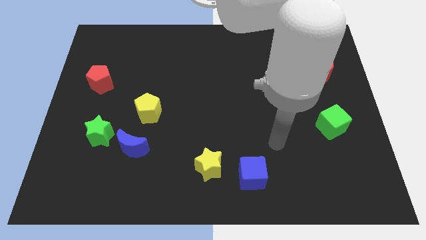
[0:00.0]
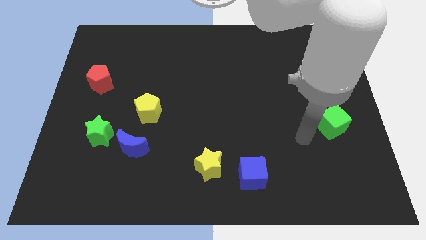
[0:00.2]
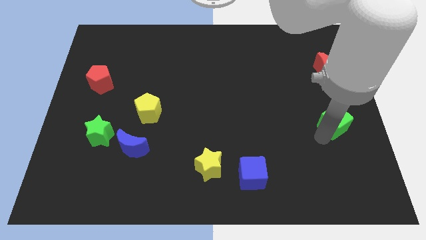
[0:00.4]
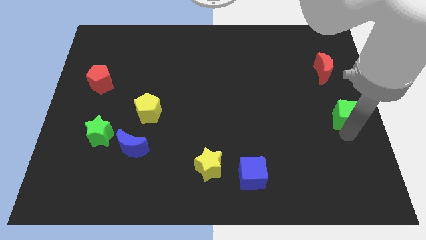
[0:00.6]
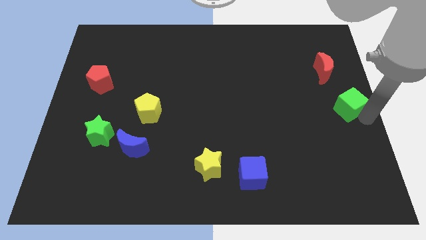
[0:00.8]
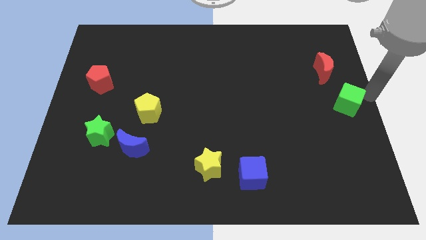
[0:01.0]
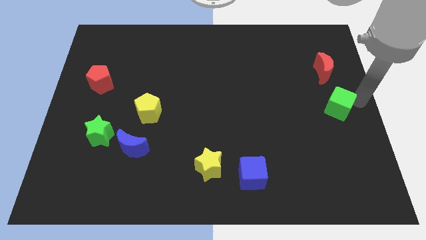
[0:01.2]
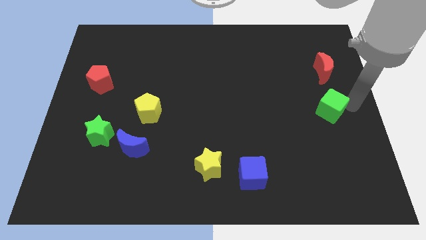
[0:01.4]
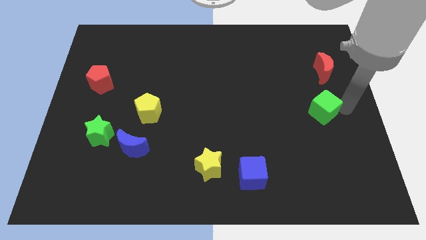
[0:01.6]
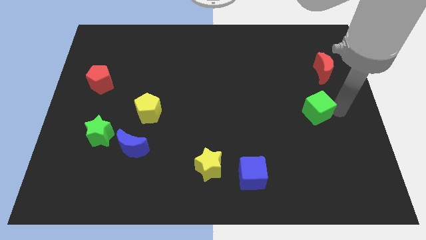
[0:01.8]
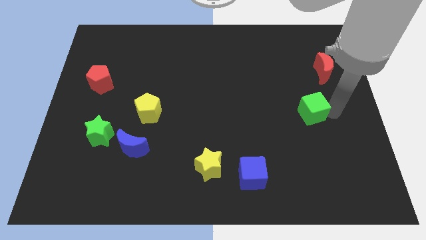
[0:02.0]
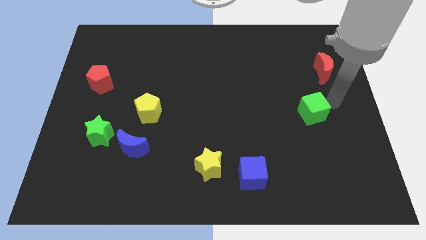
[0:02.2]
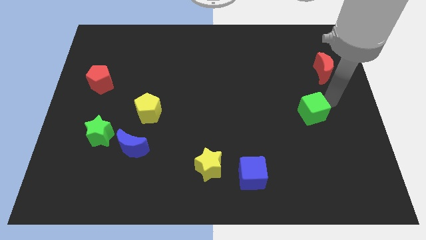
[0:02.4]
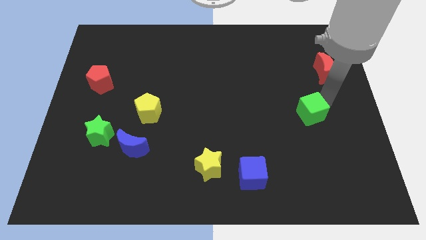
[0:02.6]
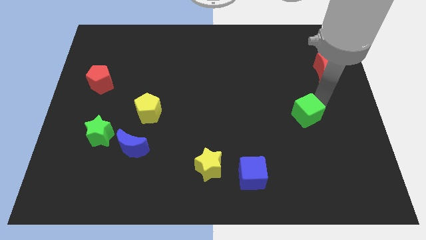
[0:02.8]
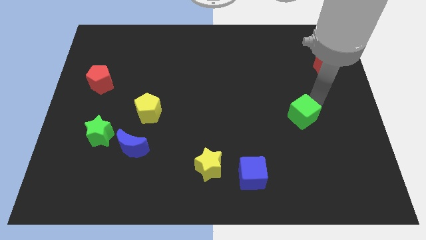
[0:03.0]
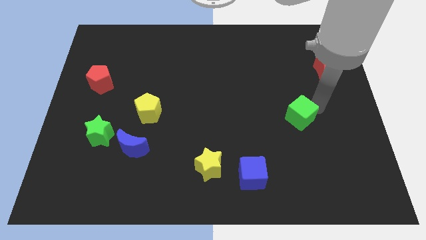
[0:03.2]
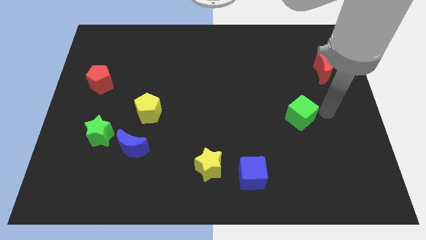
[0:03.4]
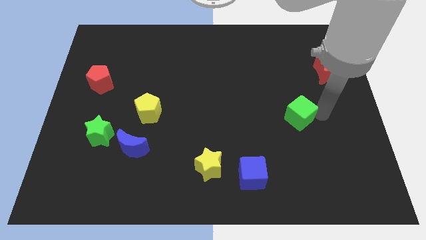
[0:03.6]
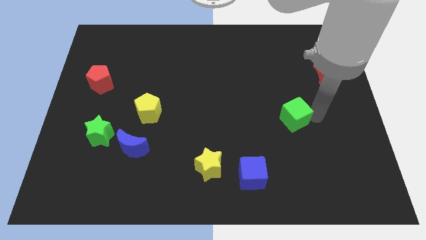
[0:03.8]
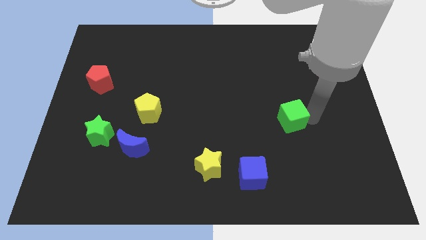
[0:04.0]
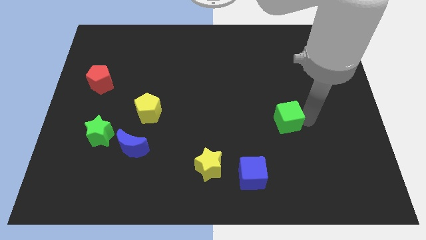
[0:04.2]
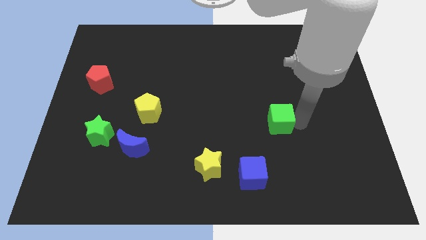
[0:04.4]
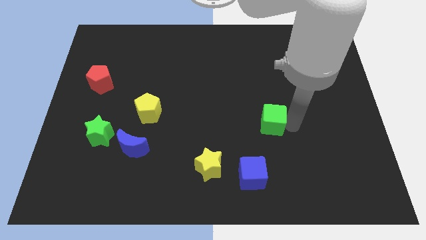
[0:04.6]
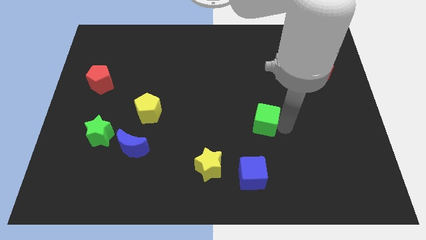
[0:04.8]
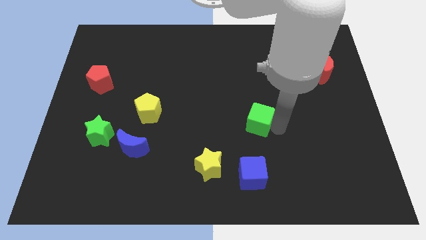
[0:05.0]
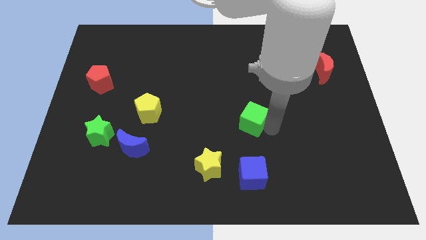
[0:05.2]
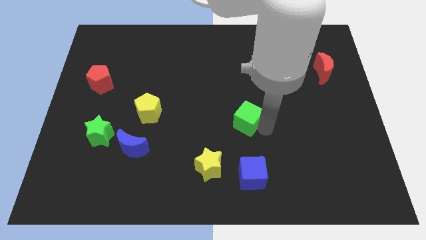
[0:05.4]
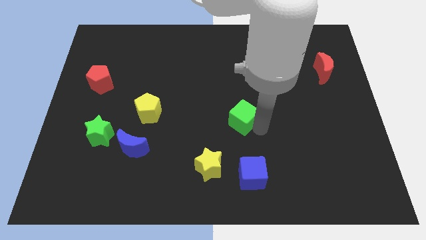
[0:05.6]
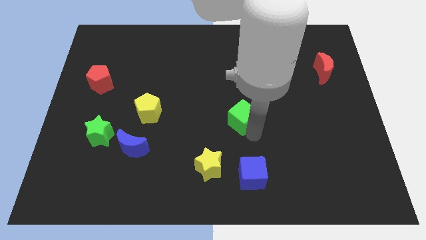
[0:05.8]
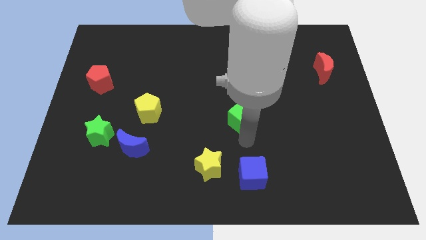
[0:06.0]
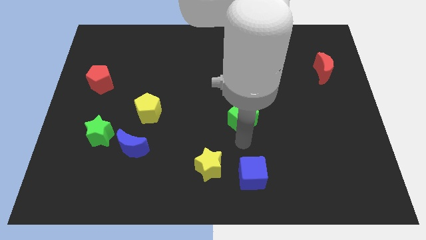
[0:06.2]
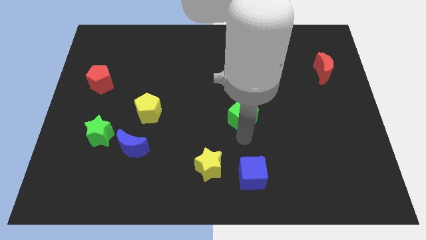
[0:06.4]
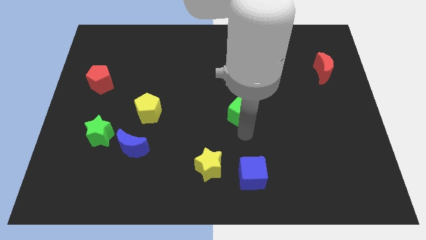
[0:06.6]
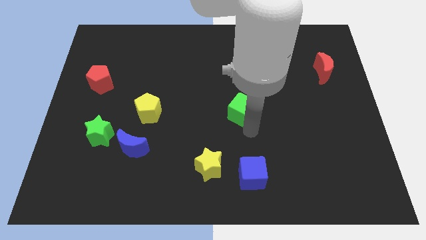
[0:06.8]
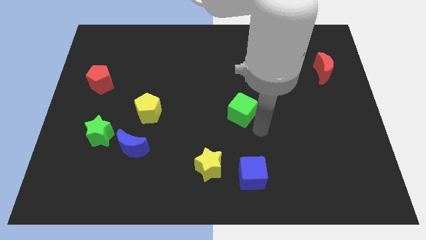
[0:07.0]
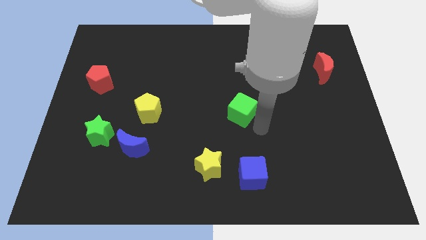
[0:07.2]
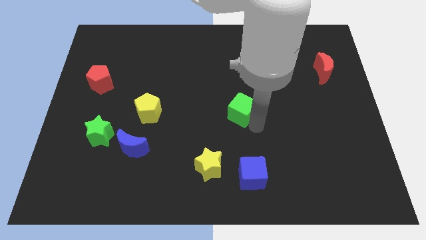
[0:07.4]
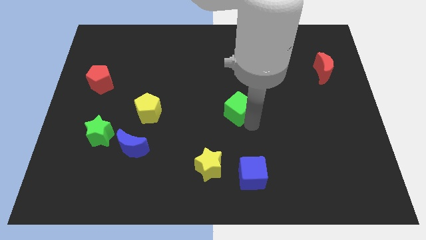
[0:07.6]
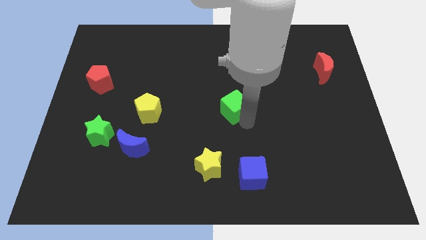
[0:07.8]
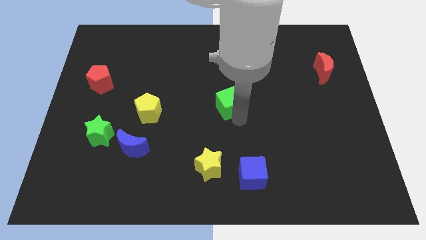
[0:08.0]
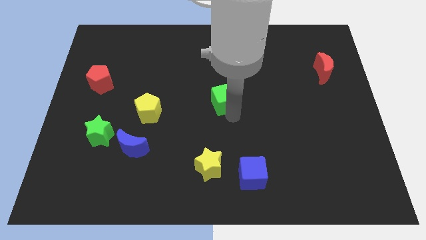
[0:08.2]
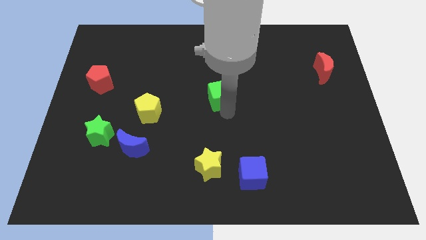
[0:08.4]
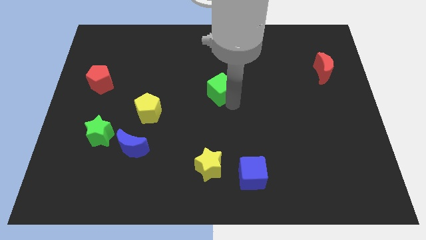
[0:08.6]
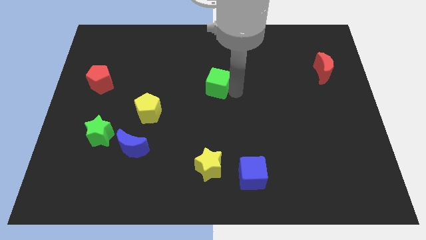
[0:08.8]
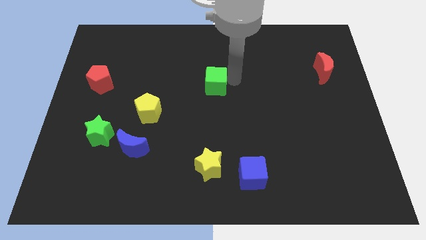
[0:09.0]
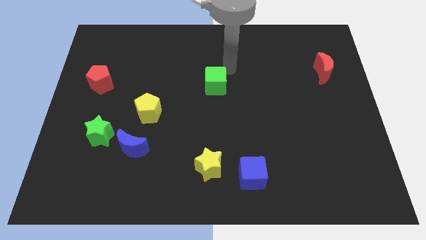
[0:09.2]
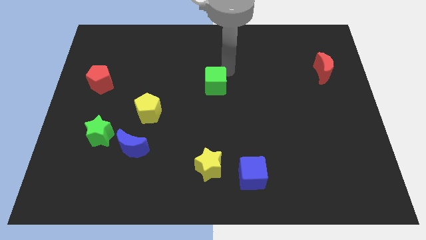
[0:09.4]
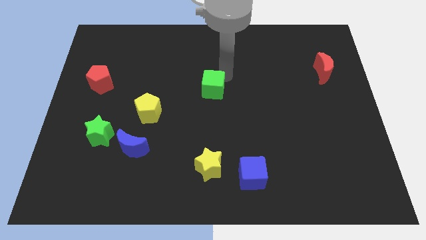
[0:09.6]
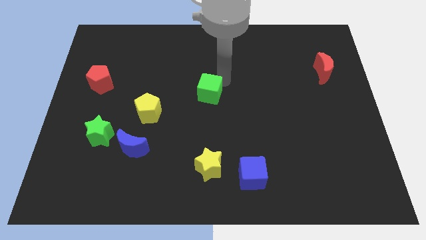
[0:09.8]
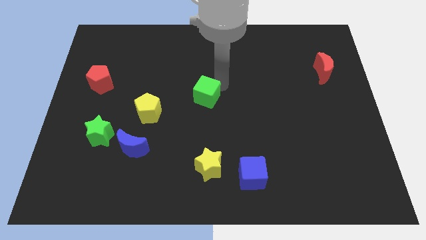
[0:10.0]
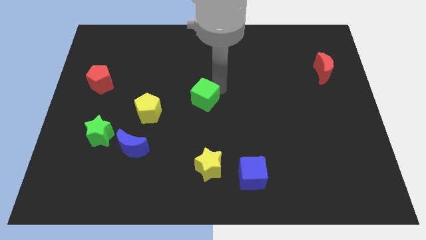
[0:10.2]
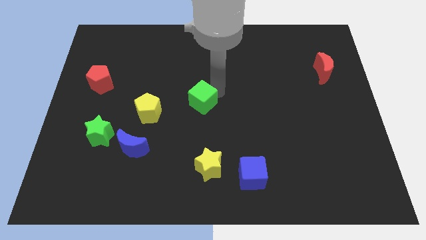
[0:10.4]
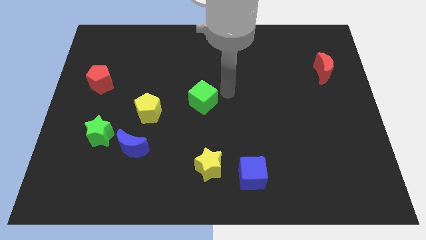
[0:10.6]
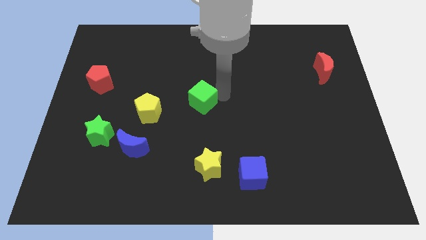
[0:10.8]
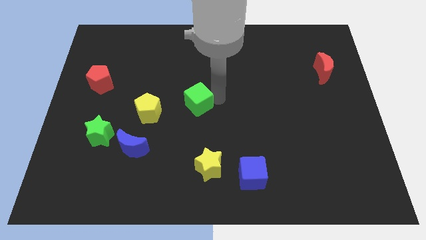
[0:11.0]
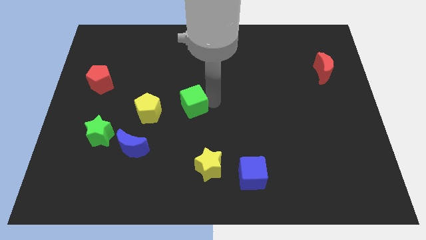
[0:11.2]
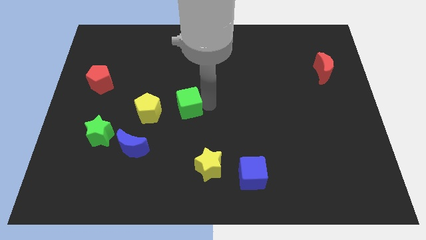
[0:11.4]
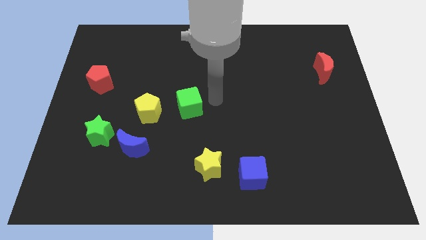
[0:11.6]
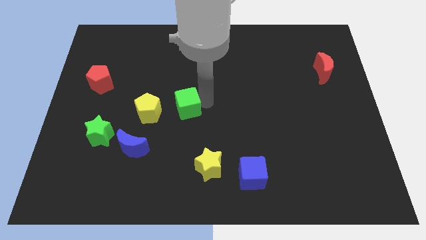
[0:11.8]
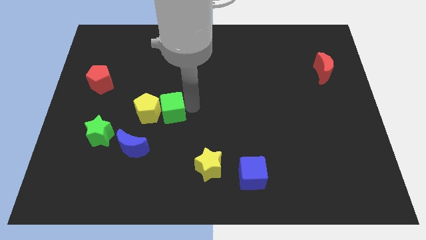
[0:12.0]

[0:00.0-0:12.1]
put the green cube to the yellow pentagon
